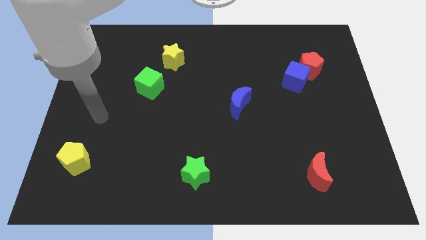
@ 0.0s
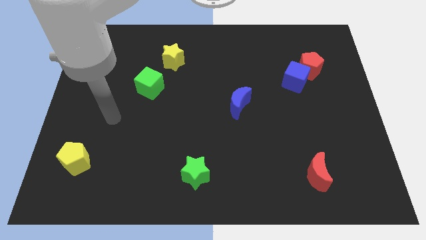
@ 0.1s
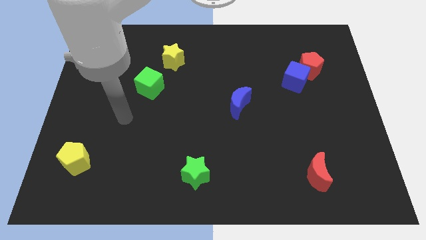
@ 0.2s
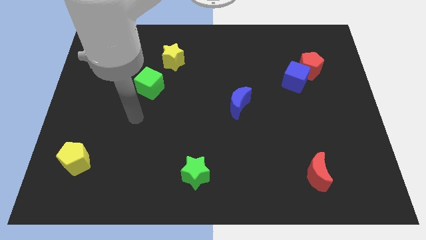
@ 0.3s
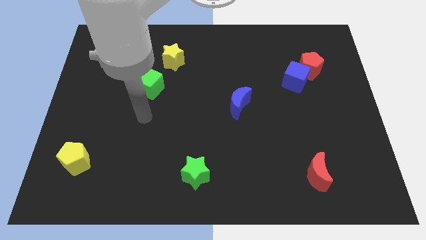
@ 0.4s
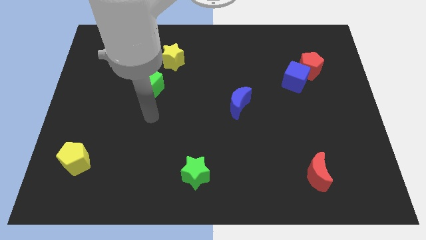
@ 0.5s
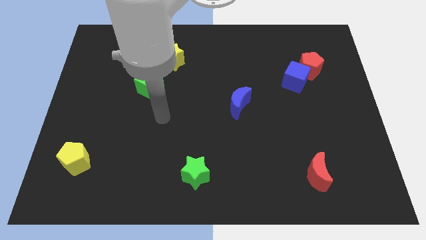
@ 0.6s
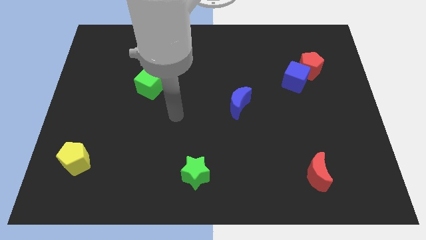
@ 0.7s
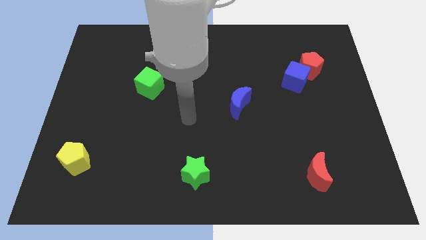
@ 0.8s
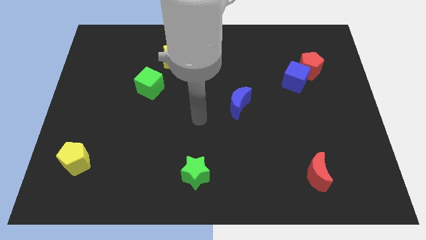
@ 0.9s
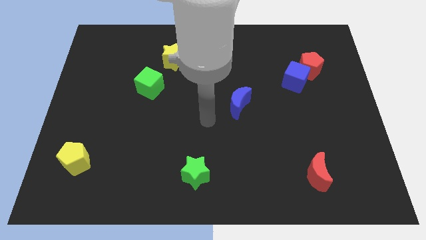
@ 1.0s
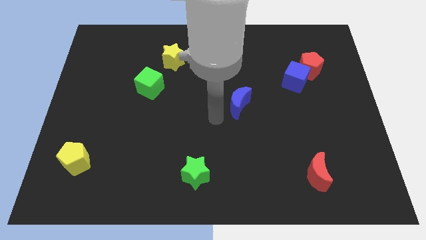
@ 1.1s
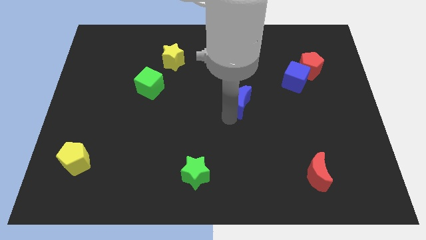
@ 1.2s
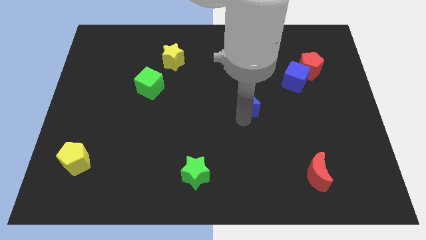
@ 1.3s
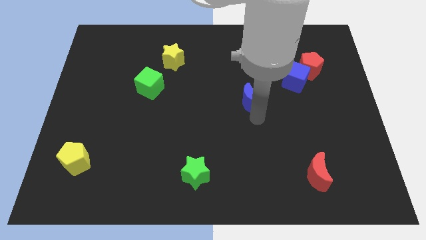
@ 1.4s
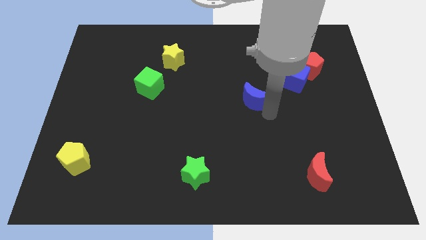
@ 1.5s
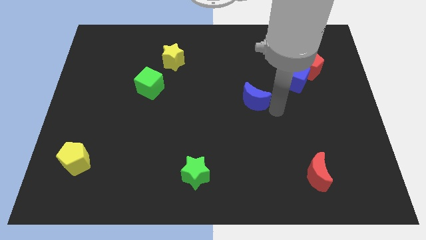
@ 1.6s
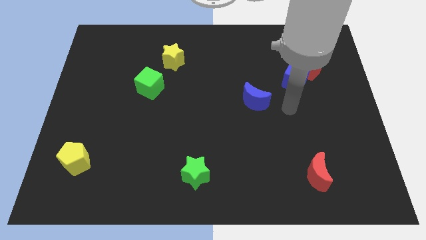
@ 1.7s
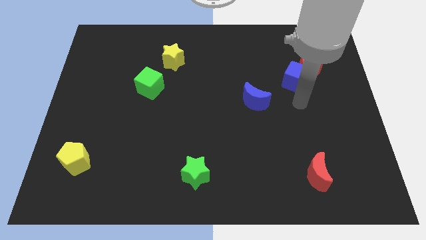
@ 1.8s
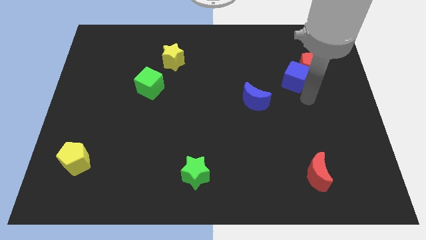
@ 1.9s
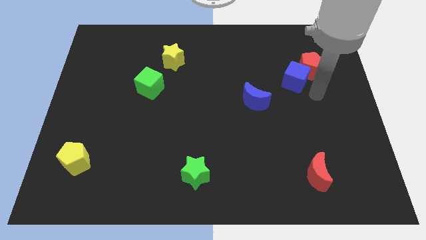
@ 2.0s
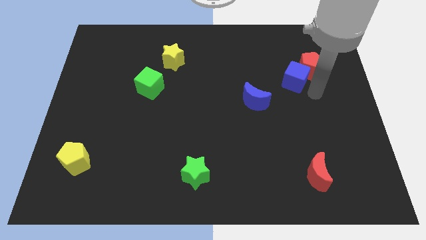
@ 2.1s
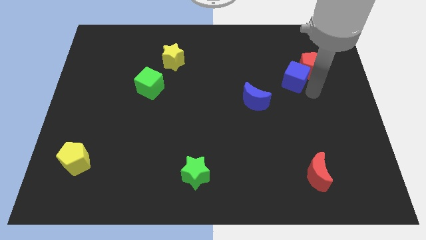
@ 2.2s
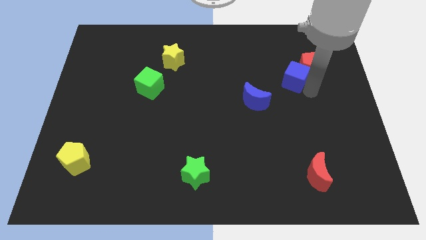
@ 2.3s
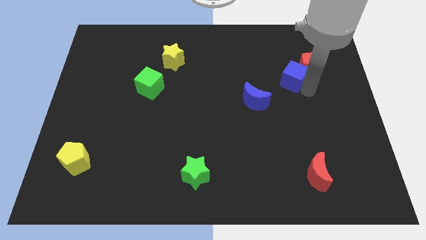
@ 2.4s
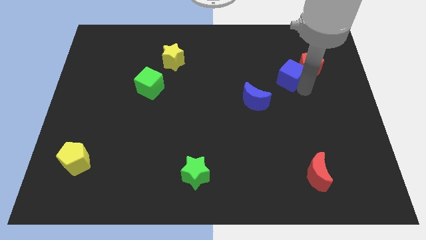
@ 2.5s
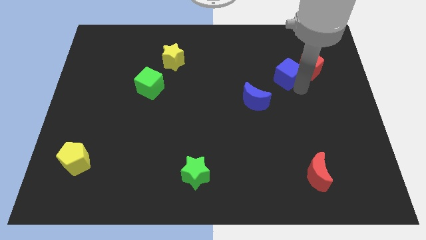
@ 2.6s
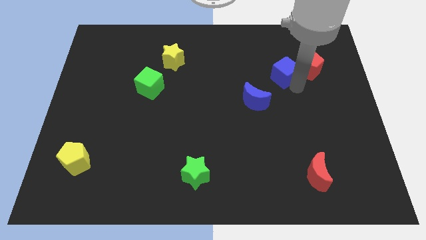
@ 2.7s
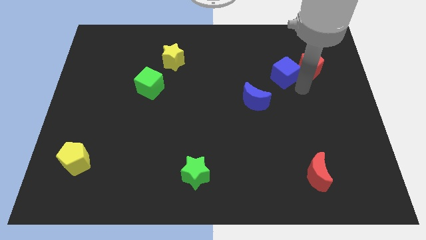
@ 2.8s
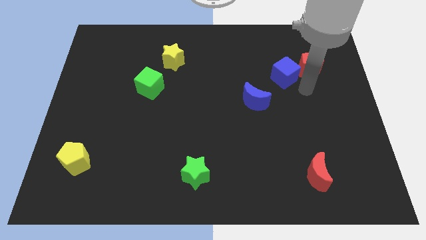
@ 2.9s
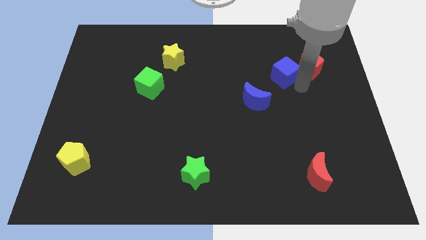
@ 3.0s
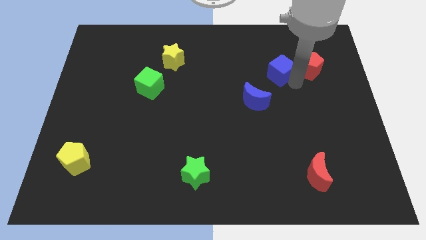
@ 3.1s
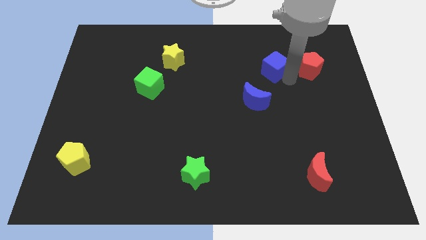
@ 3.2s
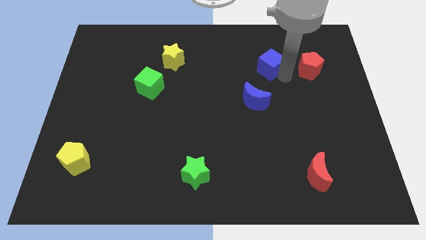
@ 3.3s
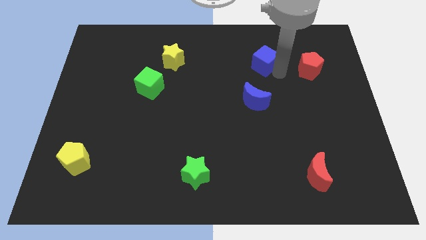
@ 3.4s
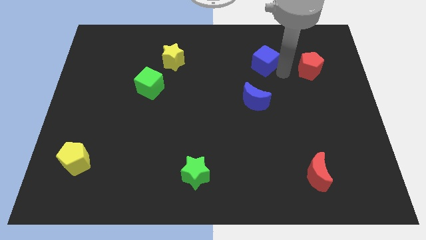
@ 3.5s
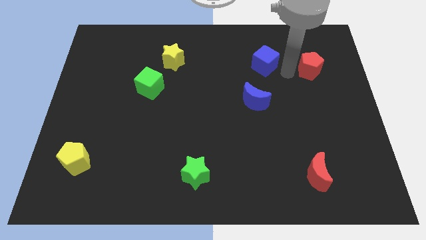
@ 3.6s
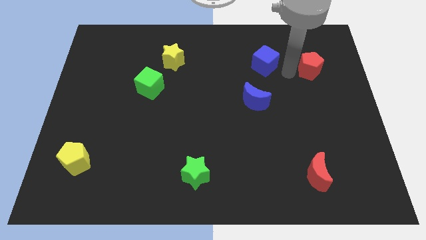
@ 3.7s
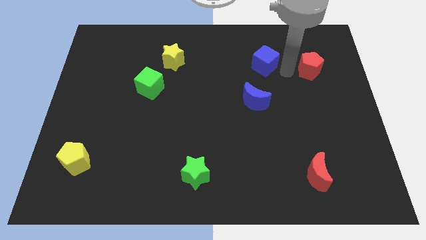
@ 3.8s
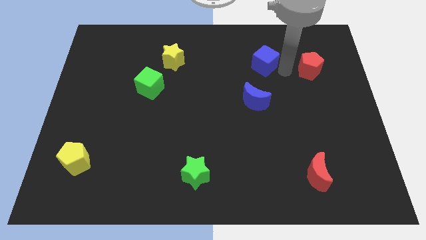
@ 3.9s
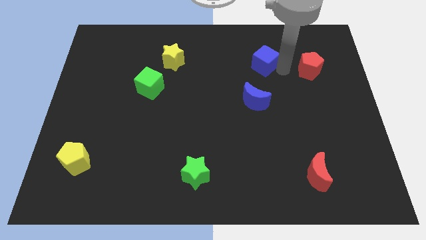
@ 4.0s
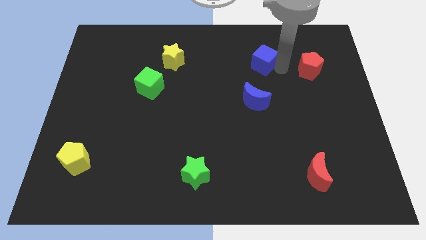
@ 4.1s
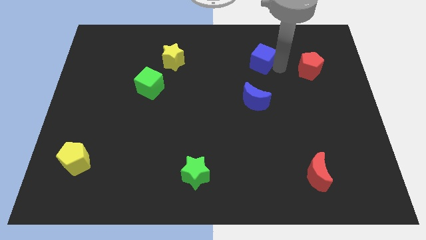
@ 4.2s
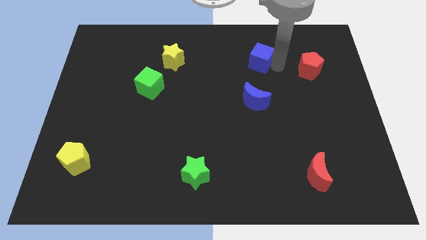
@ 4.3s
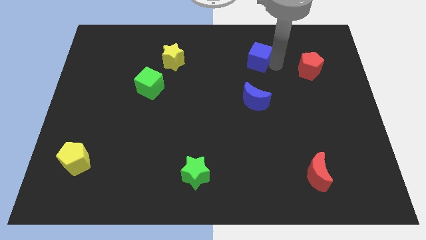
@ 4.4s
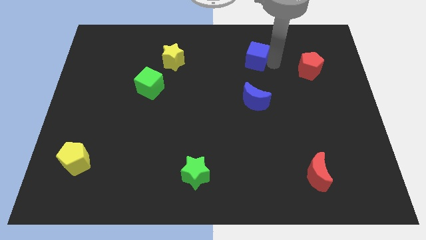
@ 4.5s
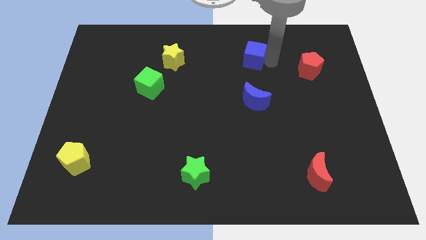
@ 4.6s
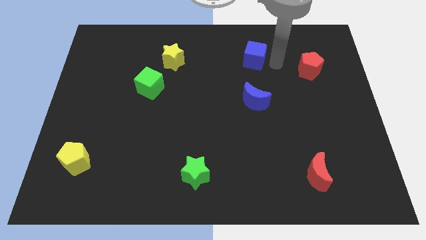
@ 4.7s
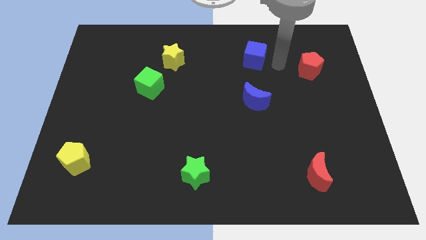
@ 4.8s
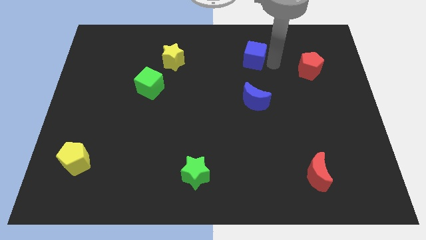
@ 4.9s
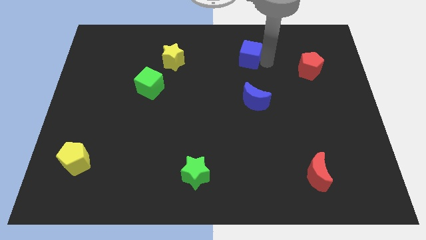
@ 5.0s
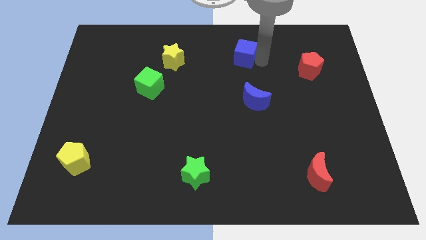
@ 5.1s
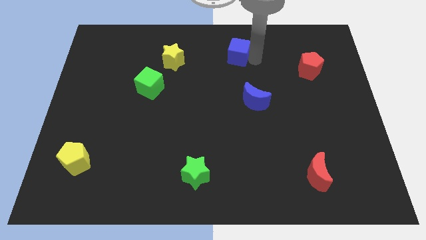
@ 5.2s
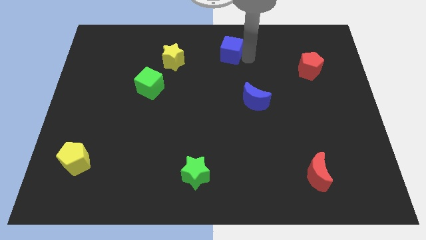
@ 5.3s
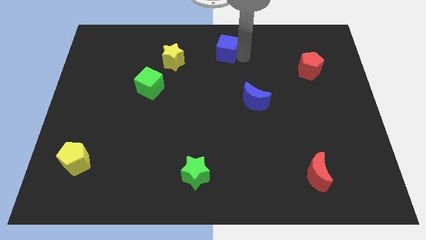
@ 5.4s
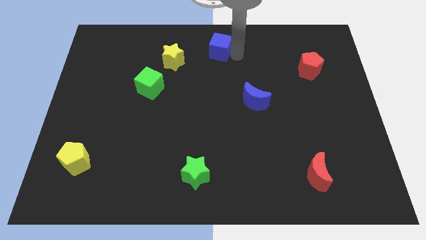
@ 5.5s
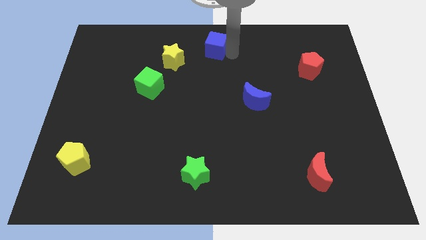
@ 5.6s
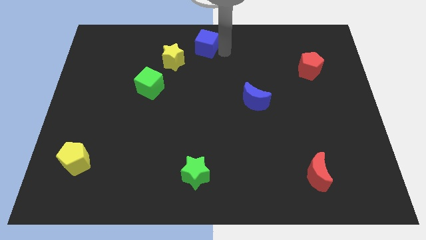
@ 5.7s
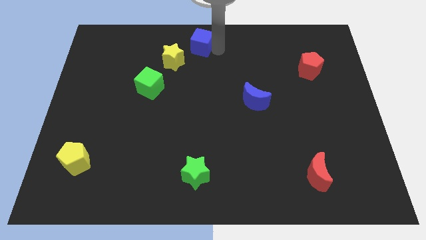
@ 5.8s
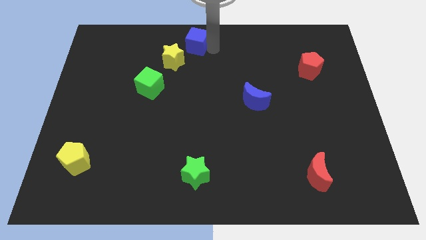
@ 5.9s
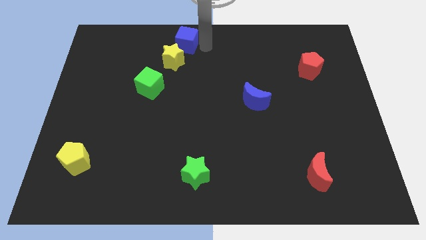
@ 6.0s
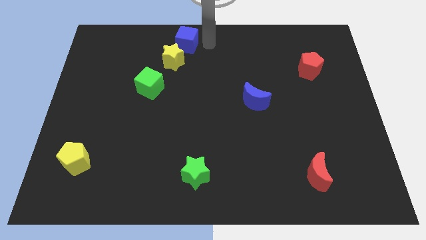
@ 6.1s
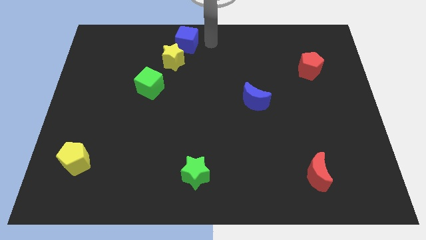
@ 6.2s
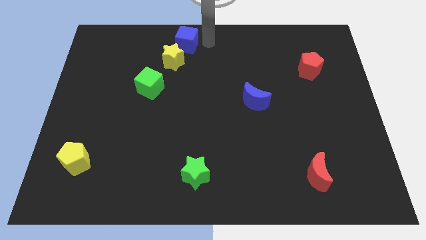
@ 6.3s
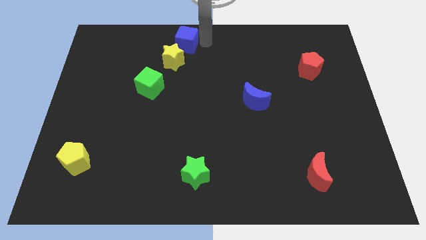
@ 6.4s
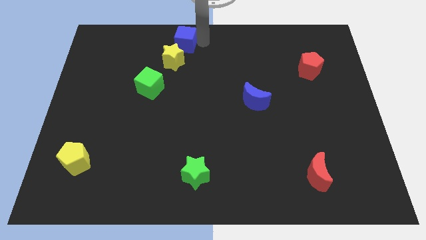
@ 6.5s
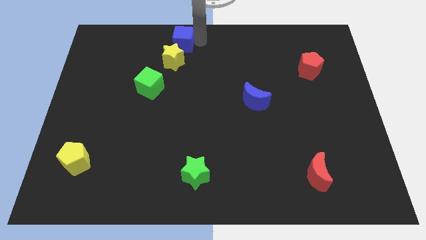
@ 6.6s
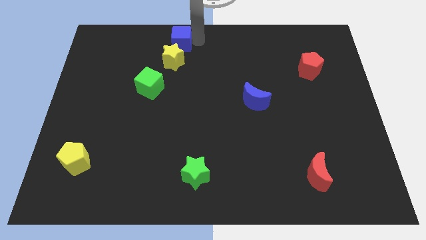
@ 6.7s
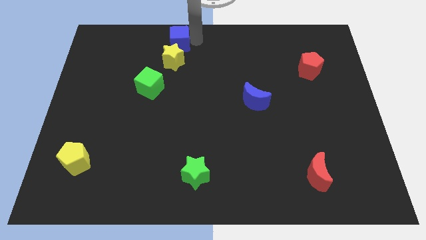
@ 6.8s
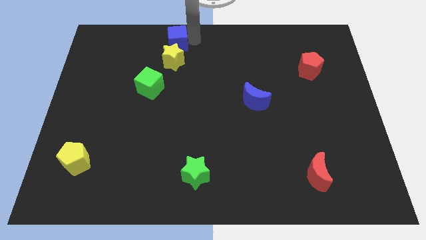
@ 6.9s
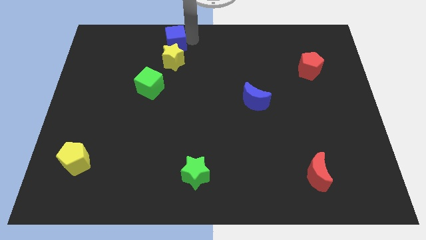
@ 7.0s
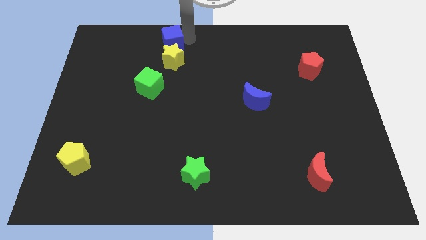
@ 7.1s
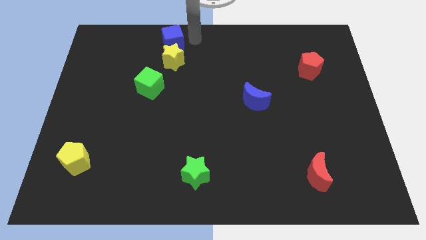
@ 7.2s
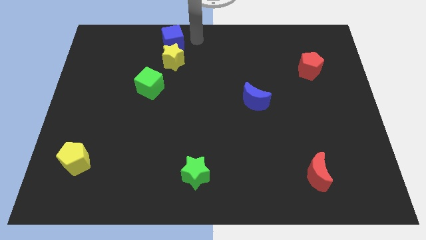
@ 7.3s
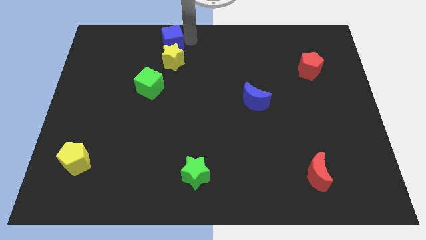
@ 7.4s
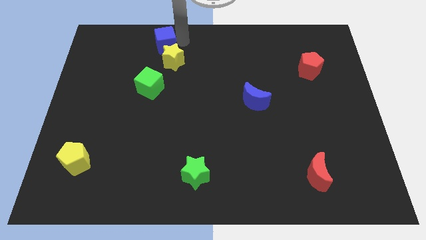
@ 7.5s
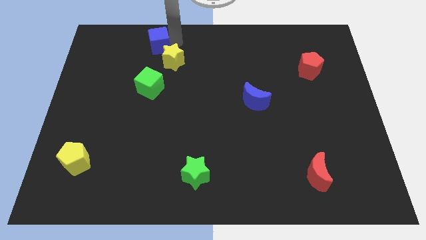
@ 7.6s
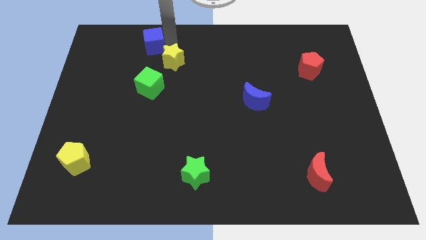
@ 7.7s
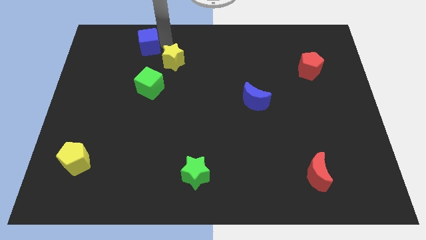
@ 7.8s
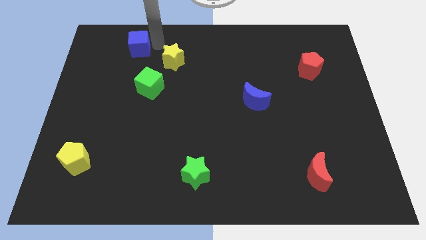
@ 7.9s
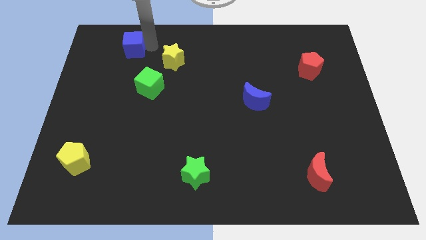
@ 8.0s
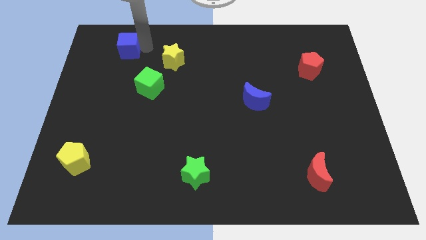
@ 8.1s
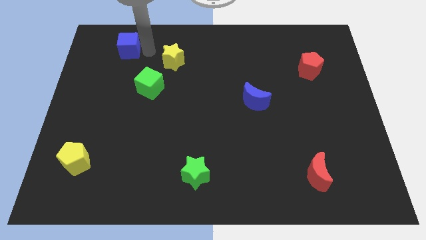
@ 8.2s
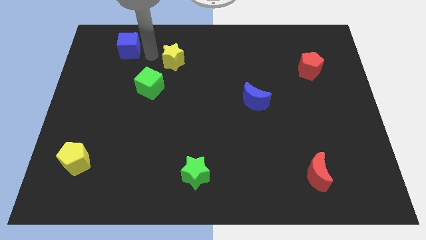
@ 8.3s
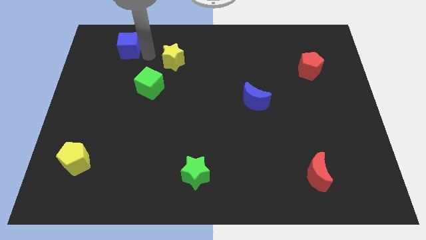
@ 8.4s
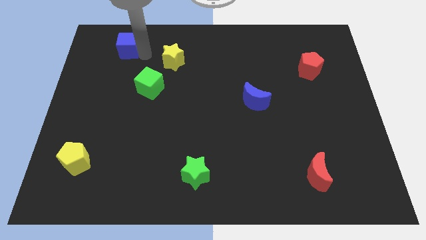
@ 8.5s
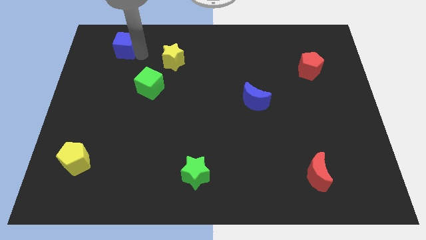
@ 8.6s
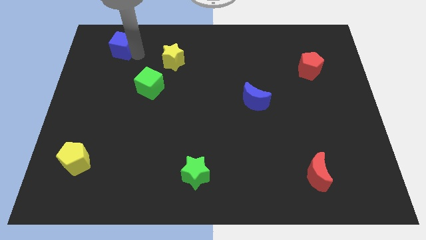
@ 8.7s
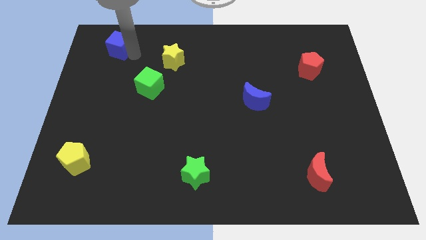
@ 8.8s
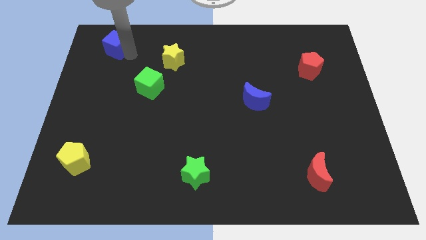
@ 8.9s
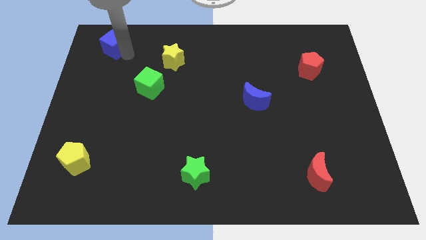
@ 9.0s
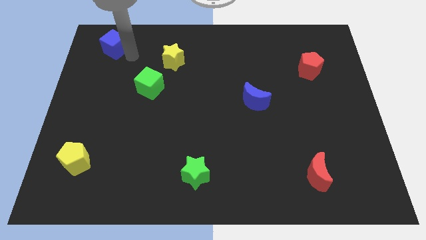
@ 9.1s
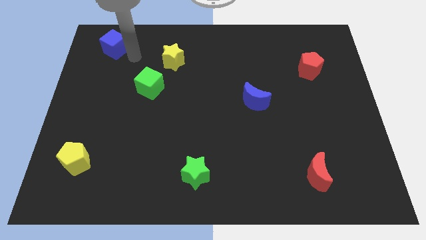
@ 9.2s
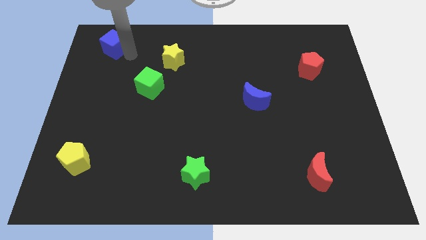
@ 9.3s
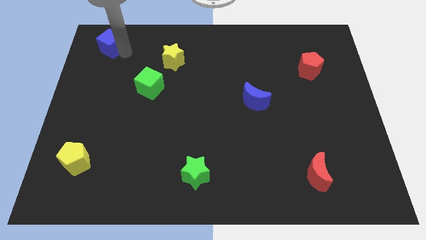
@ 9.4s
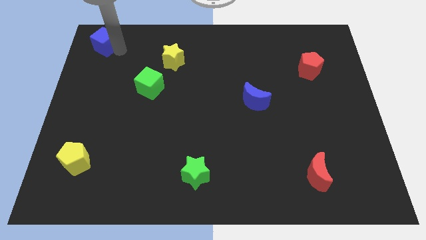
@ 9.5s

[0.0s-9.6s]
push the blue cube to the top left corner
